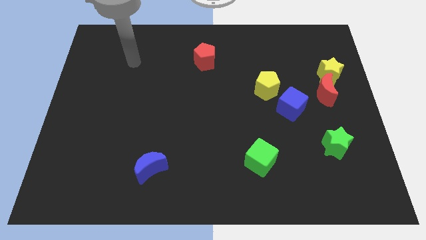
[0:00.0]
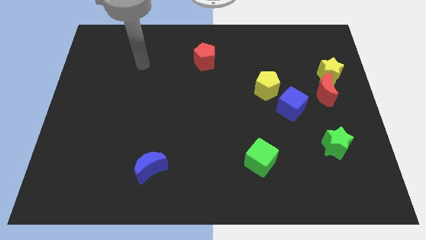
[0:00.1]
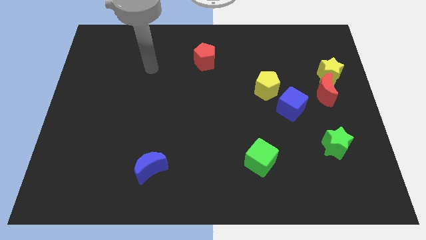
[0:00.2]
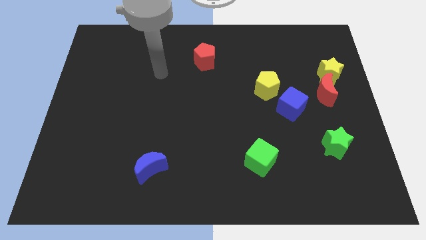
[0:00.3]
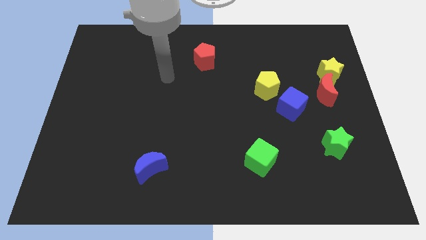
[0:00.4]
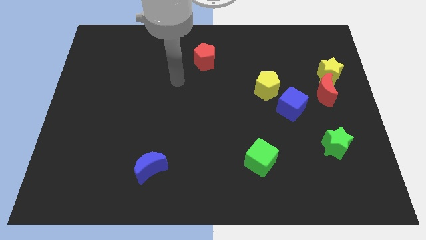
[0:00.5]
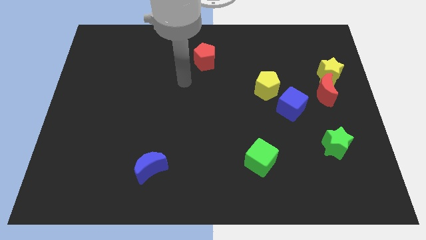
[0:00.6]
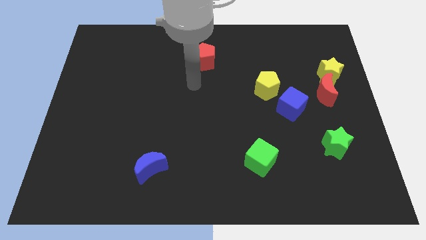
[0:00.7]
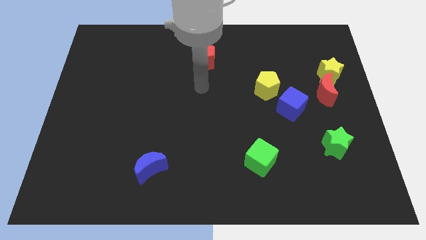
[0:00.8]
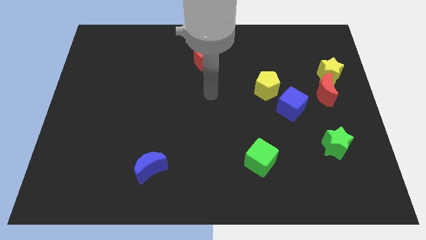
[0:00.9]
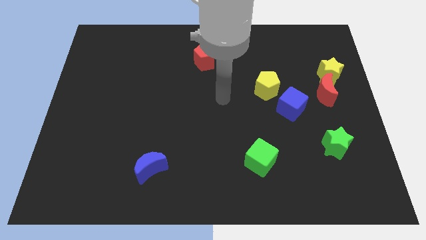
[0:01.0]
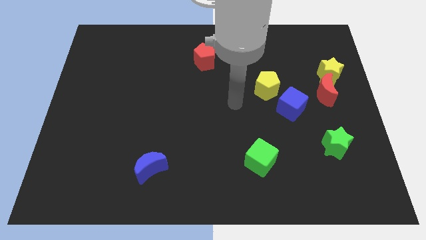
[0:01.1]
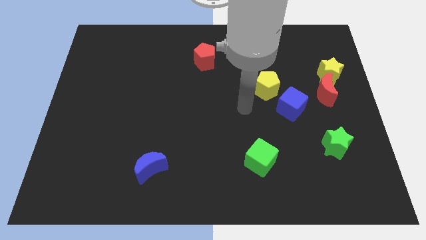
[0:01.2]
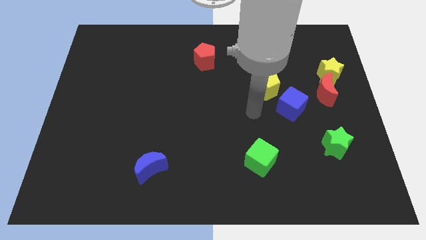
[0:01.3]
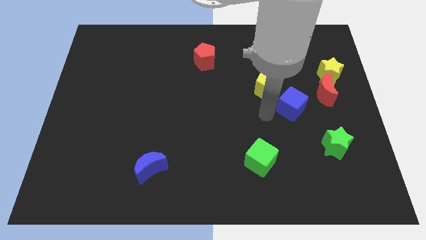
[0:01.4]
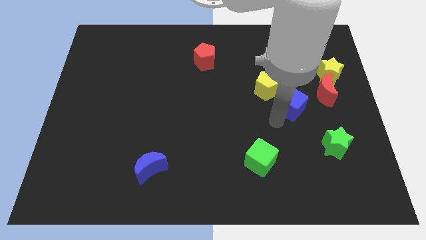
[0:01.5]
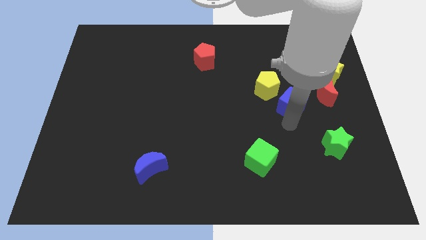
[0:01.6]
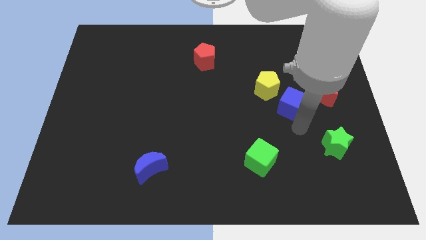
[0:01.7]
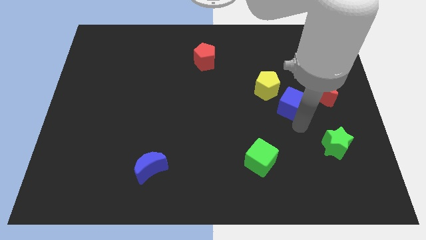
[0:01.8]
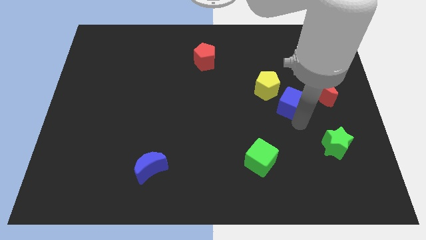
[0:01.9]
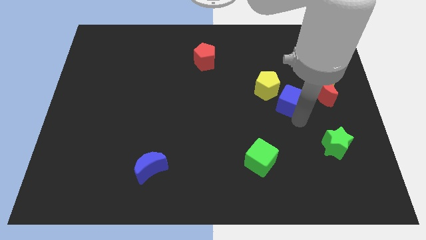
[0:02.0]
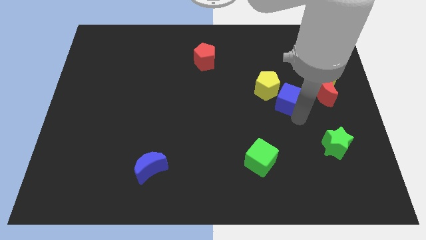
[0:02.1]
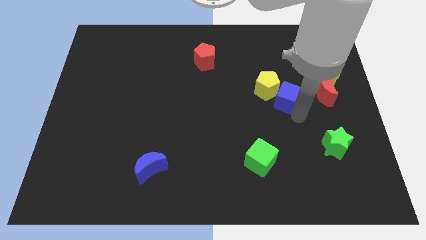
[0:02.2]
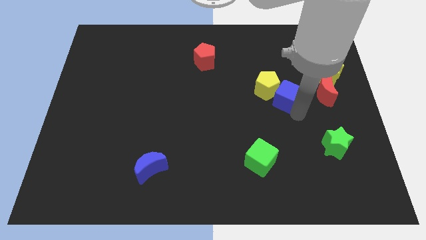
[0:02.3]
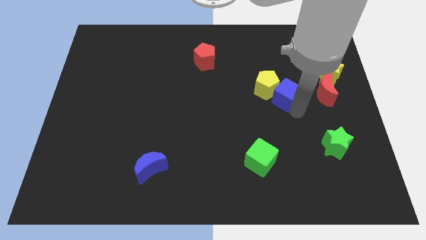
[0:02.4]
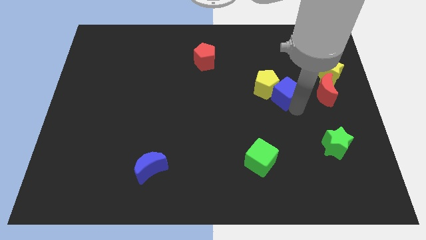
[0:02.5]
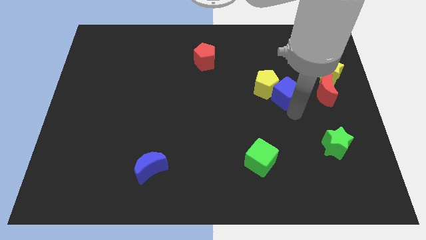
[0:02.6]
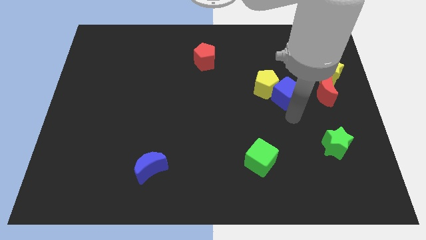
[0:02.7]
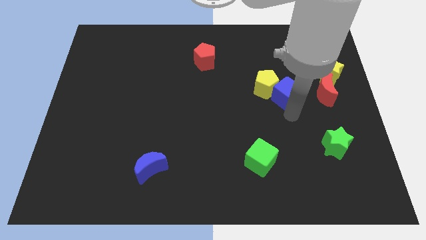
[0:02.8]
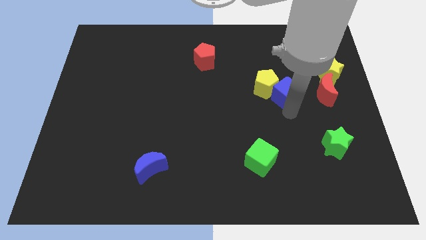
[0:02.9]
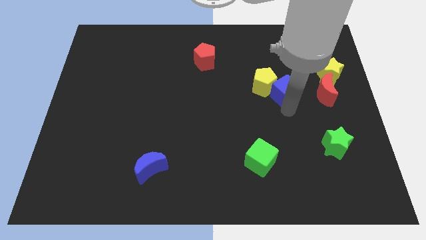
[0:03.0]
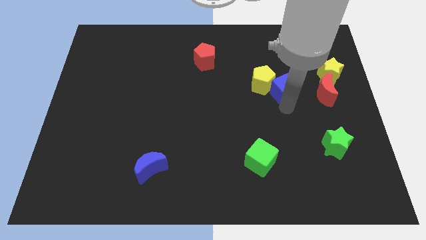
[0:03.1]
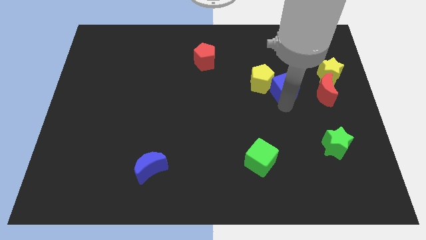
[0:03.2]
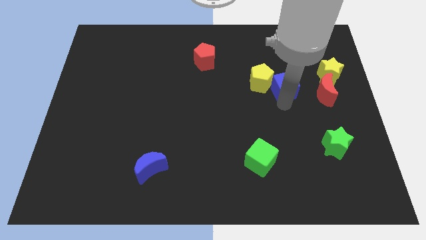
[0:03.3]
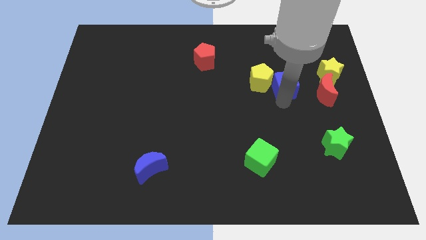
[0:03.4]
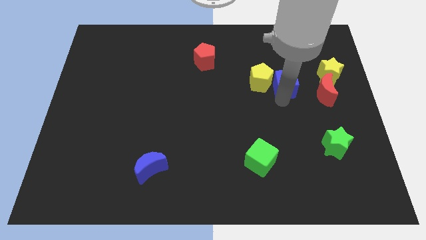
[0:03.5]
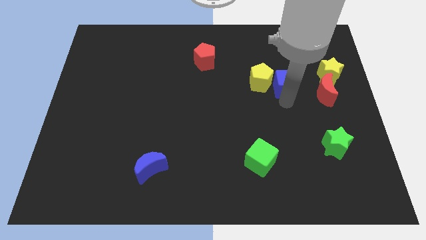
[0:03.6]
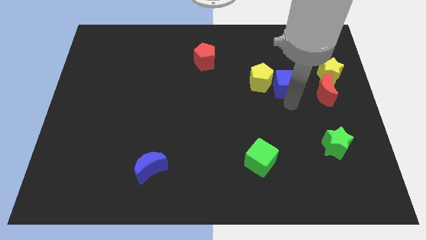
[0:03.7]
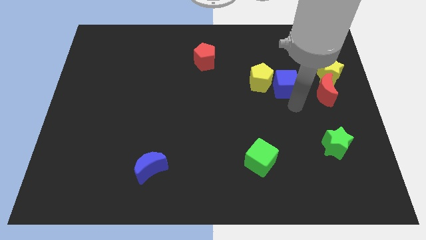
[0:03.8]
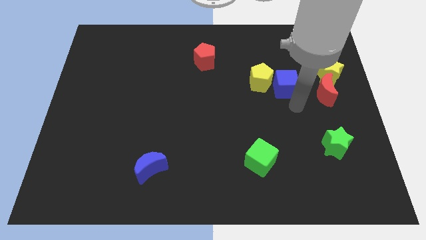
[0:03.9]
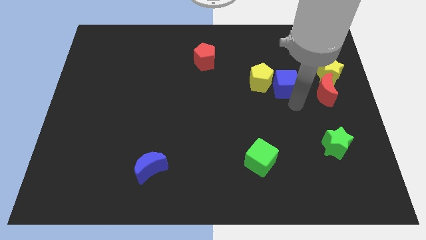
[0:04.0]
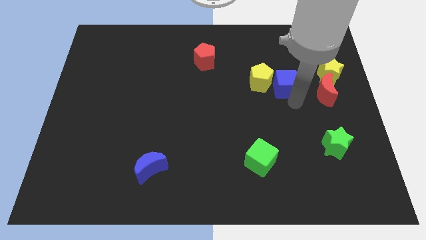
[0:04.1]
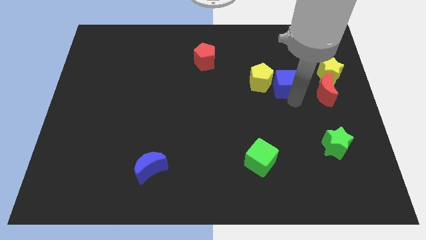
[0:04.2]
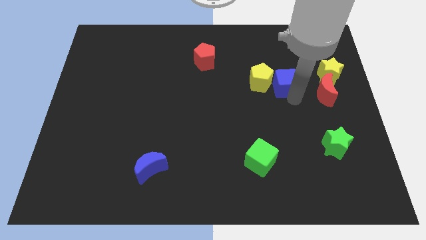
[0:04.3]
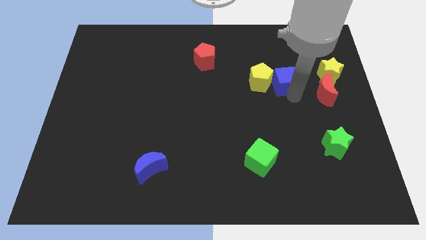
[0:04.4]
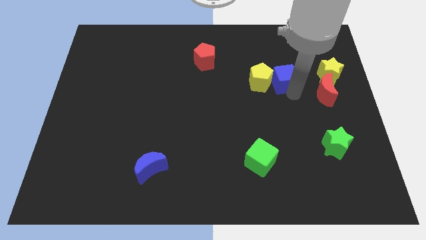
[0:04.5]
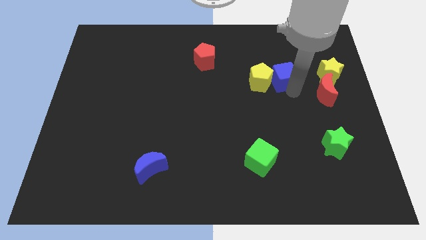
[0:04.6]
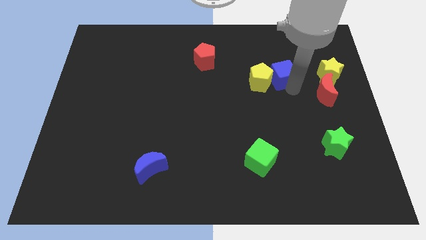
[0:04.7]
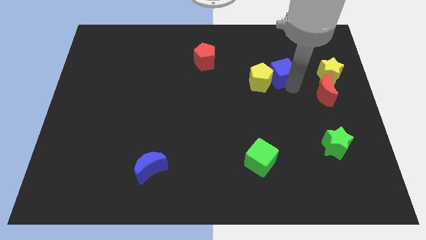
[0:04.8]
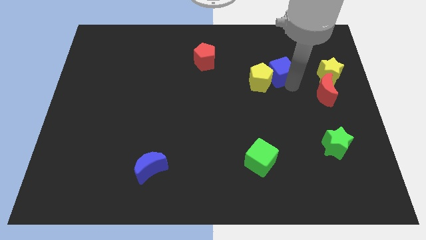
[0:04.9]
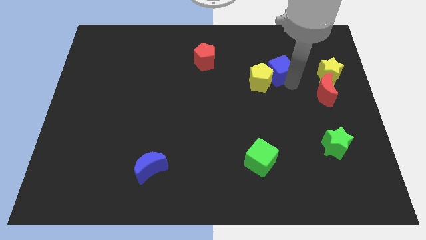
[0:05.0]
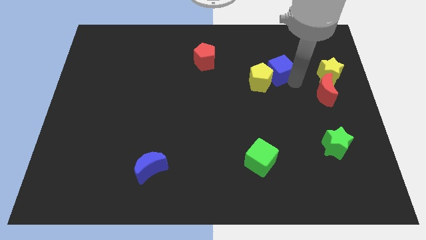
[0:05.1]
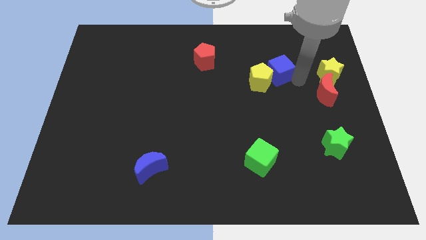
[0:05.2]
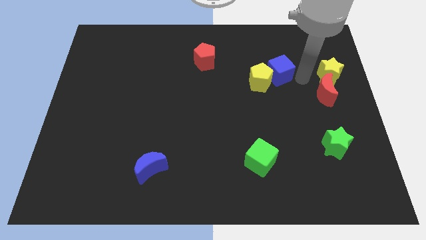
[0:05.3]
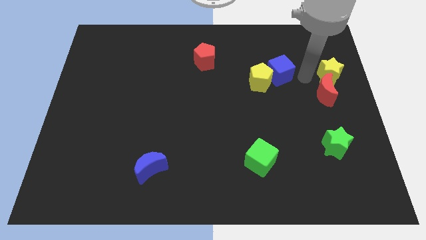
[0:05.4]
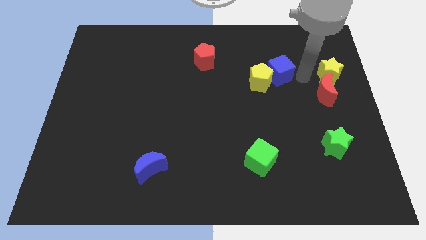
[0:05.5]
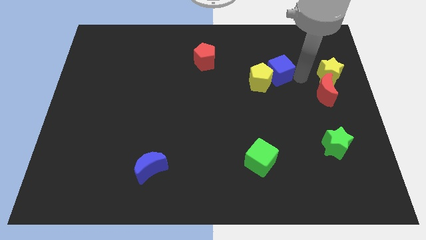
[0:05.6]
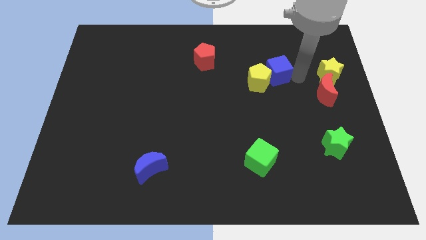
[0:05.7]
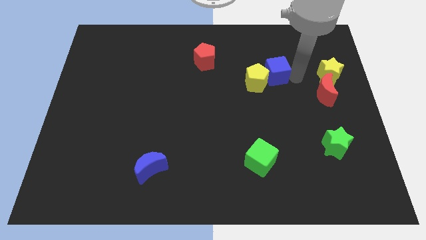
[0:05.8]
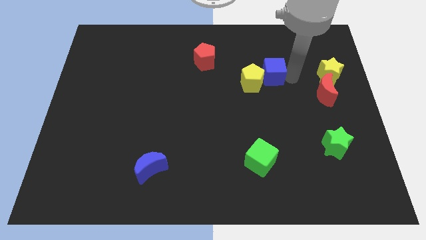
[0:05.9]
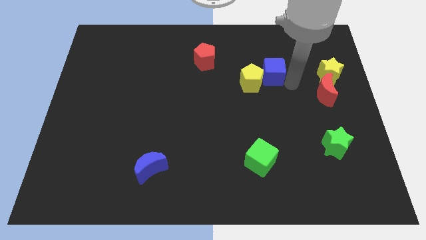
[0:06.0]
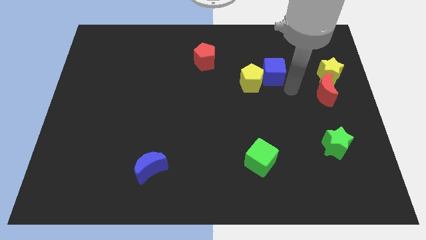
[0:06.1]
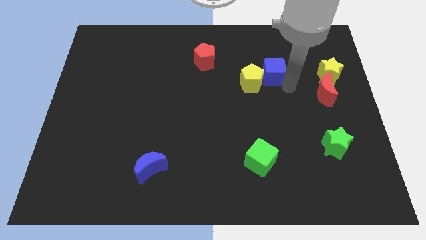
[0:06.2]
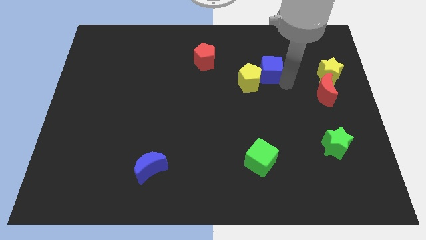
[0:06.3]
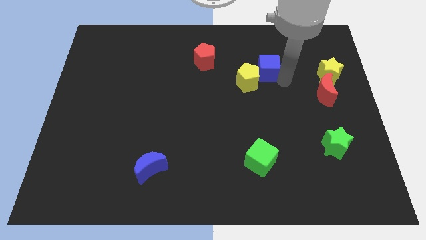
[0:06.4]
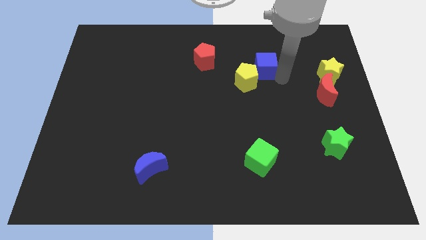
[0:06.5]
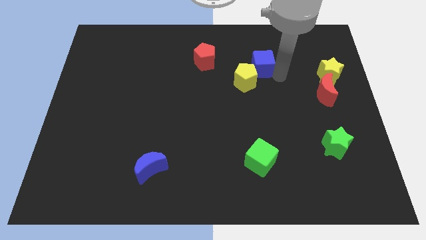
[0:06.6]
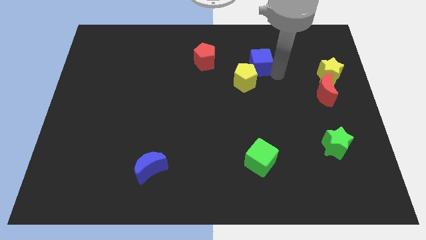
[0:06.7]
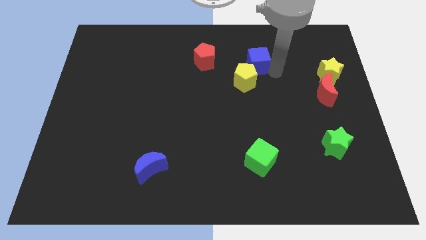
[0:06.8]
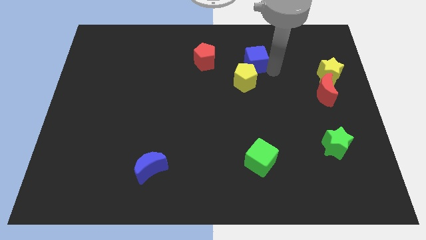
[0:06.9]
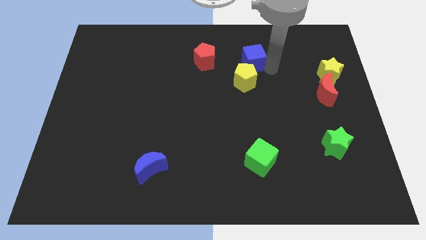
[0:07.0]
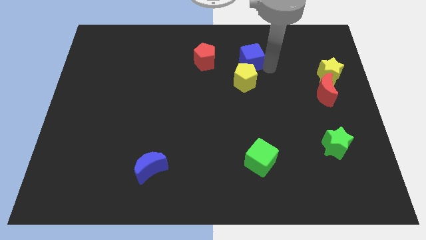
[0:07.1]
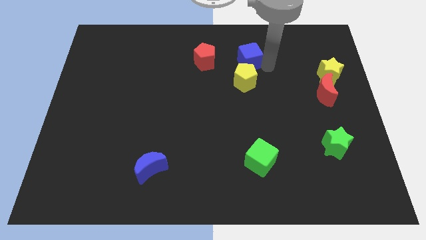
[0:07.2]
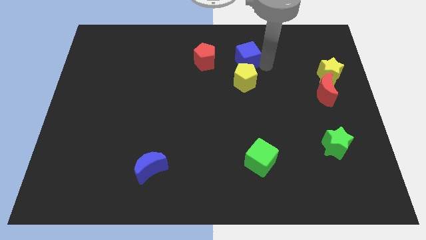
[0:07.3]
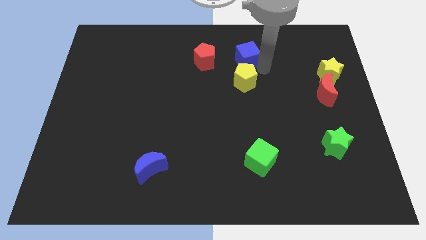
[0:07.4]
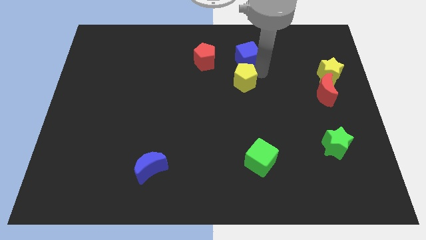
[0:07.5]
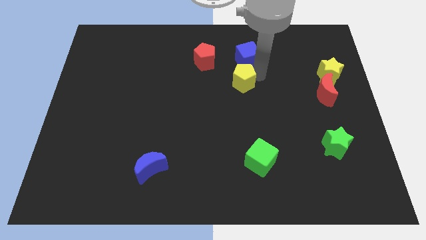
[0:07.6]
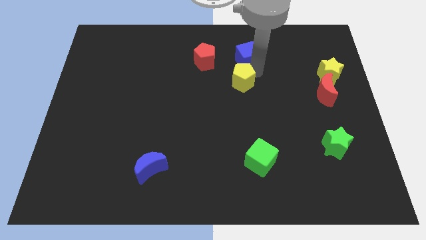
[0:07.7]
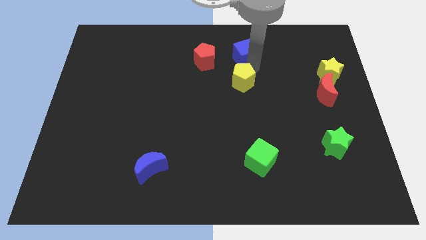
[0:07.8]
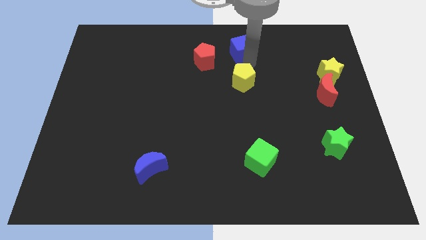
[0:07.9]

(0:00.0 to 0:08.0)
slide the blue cube to the top side
